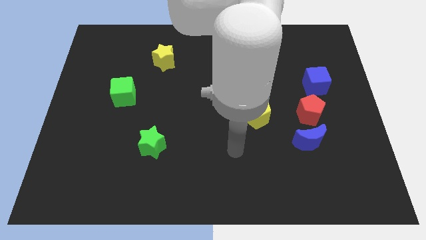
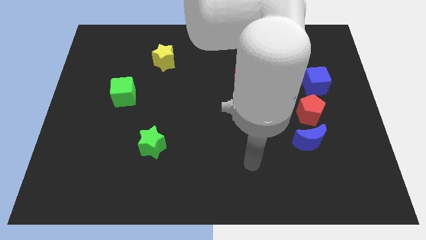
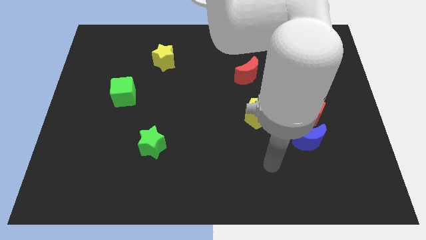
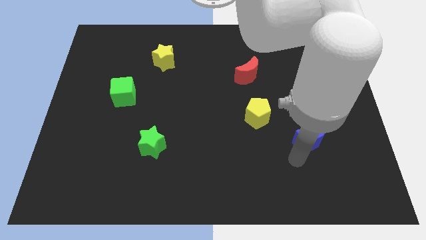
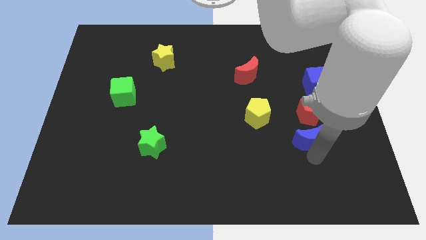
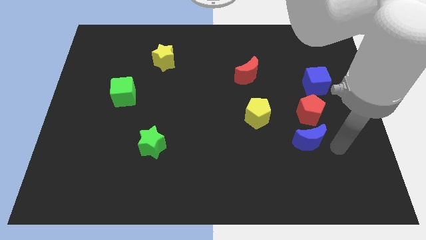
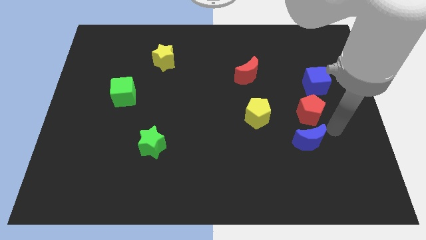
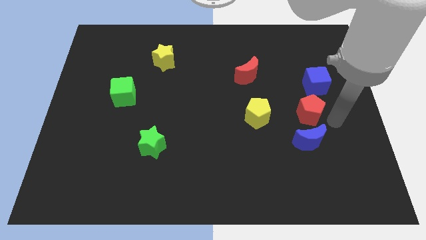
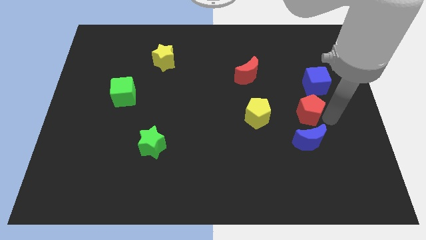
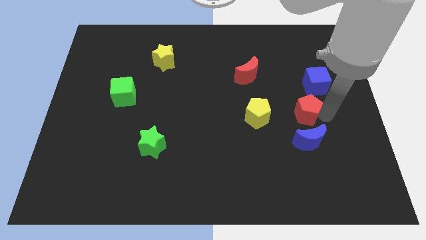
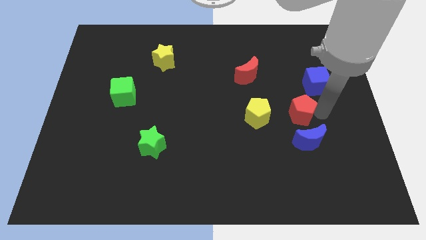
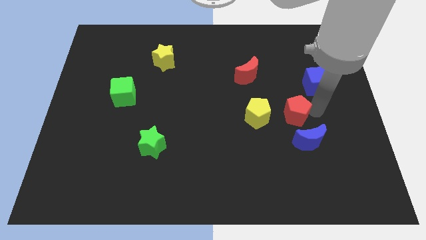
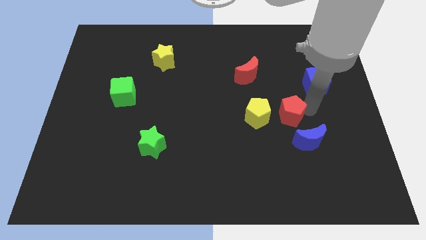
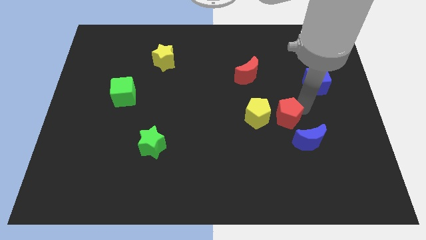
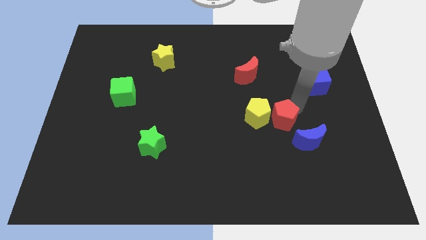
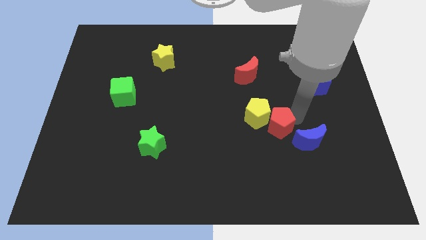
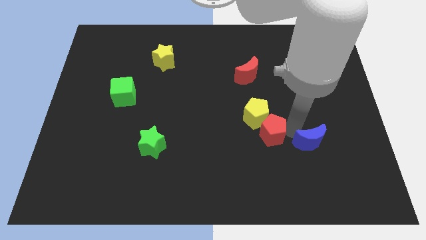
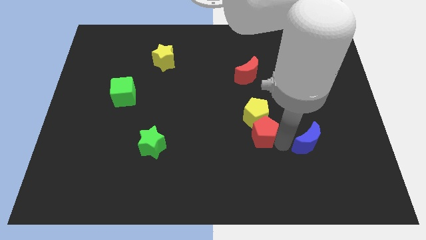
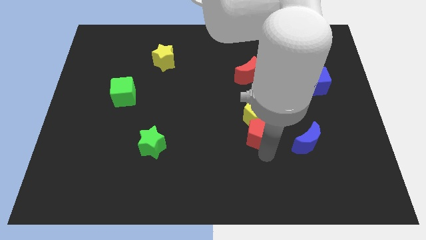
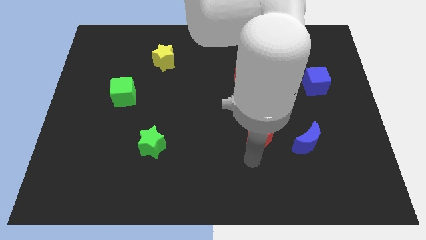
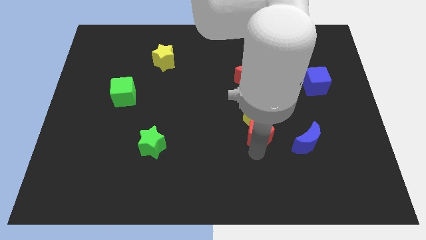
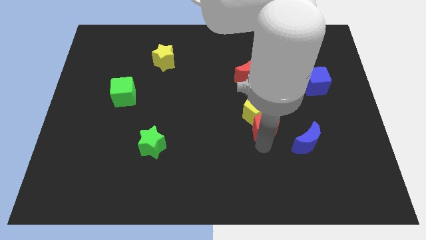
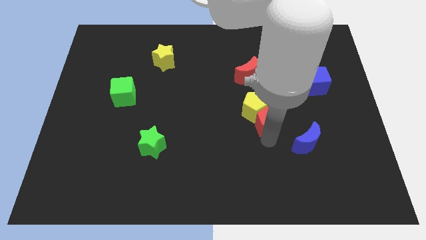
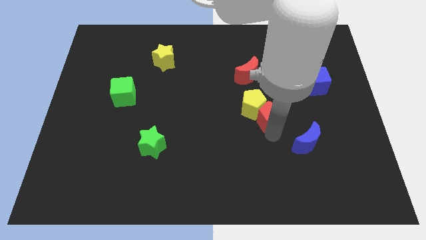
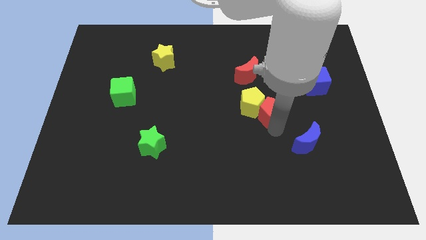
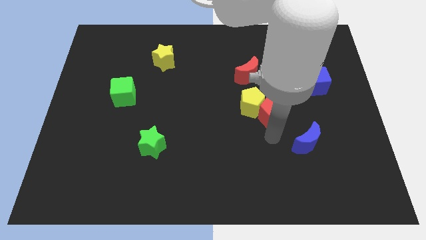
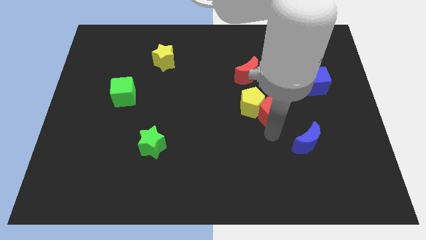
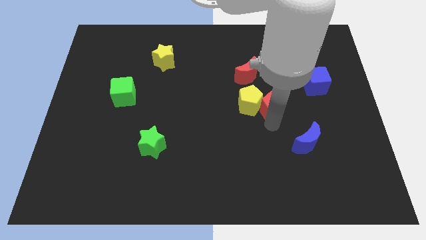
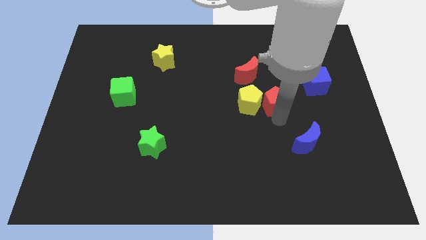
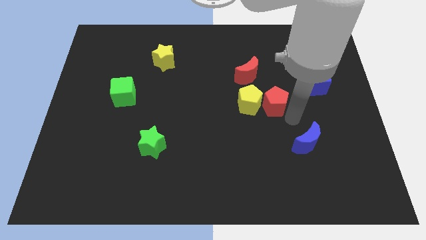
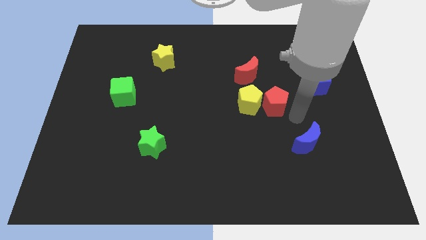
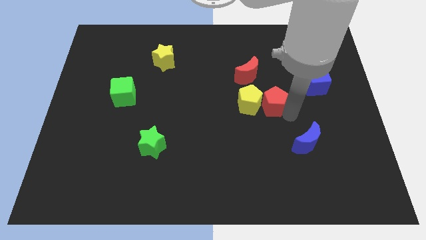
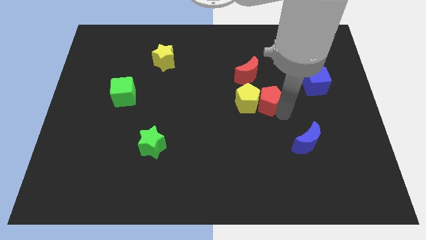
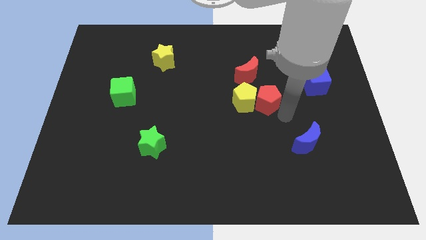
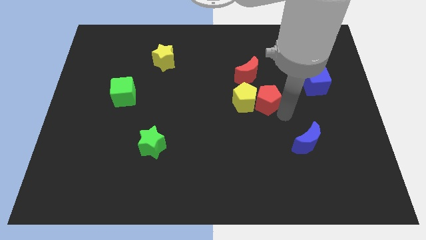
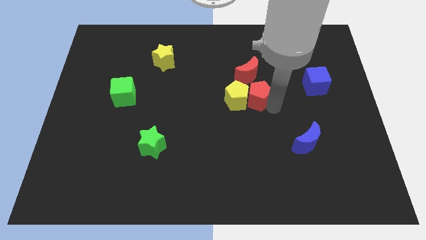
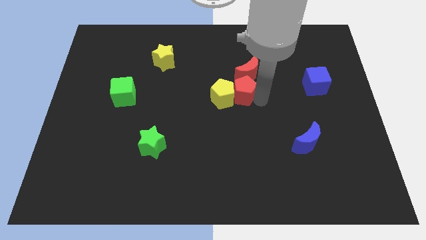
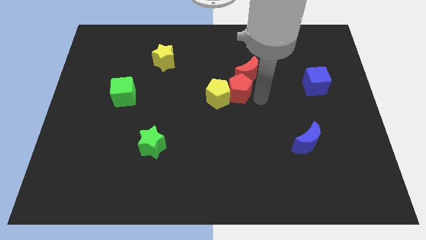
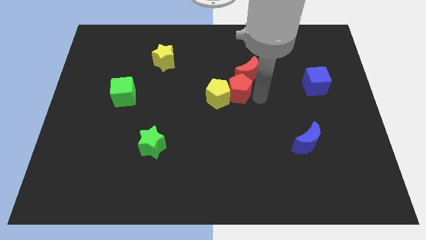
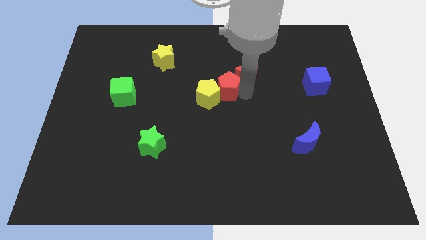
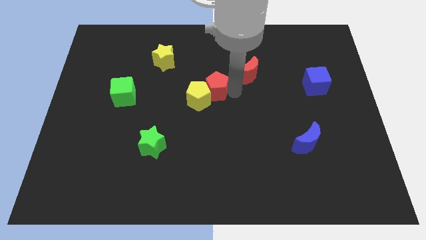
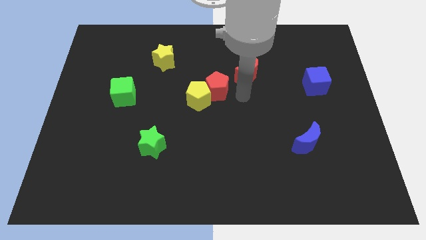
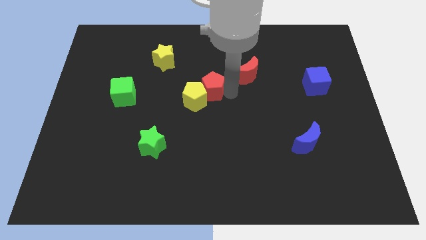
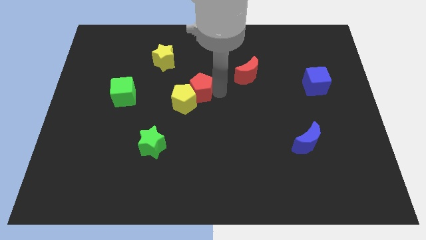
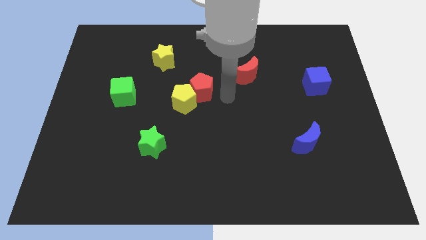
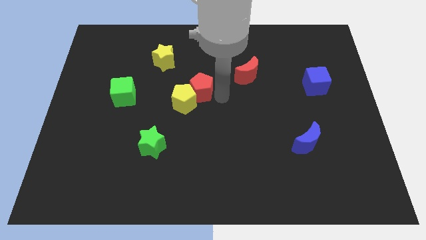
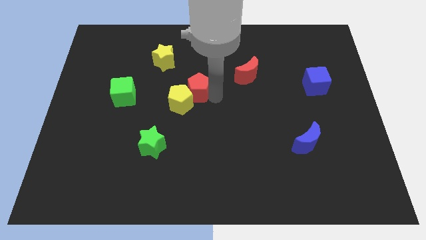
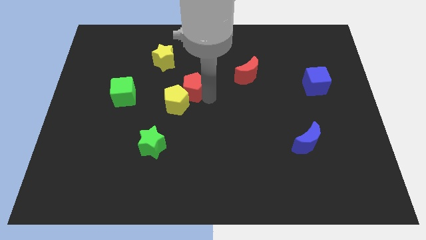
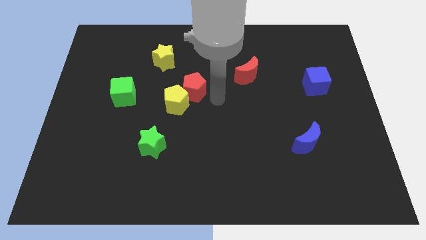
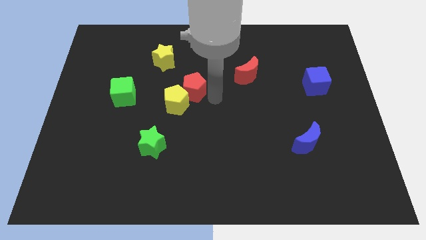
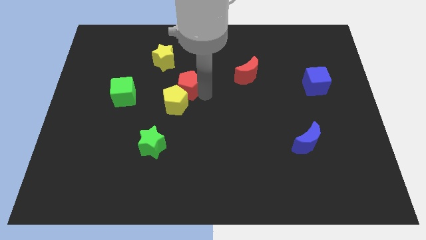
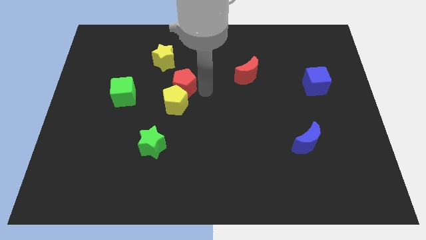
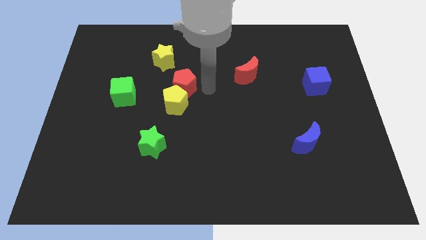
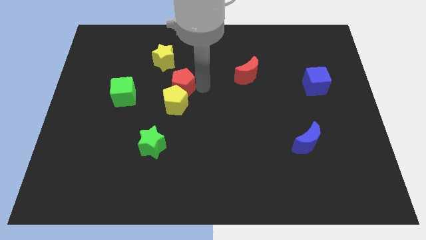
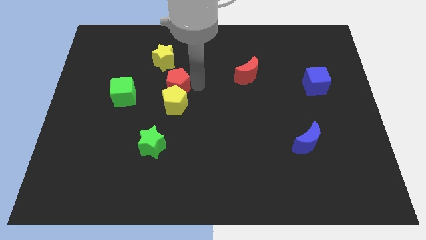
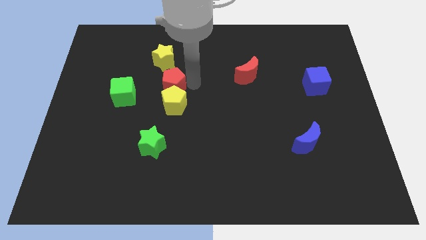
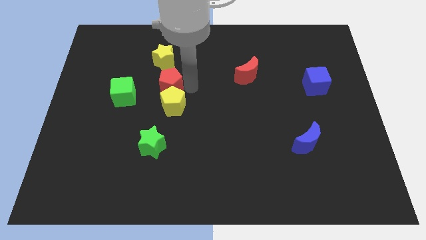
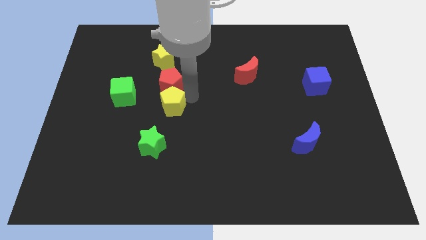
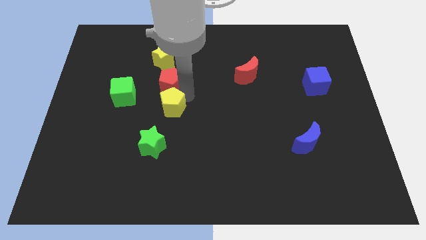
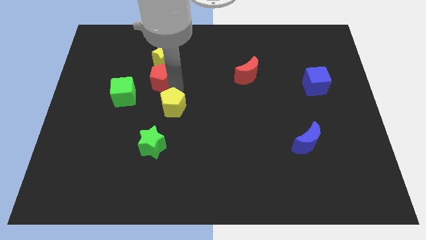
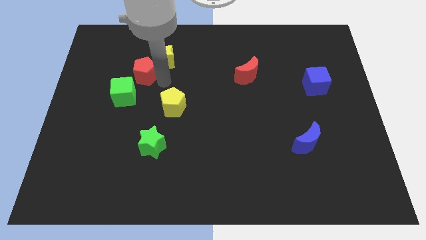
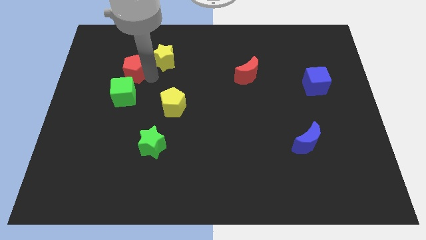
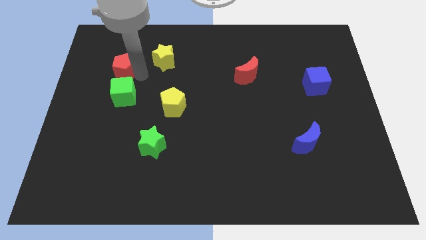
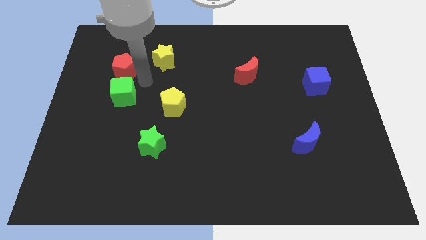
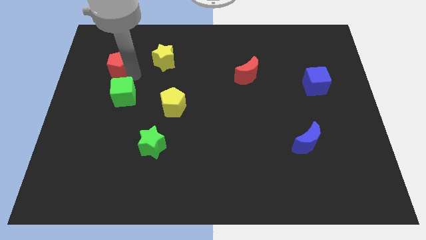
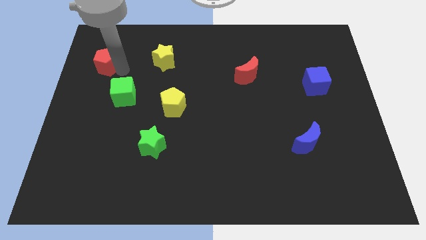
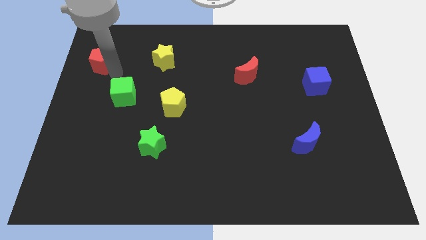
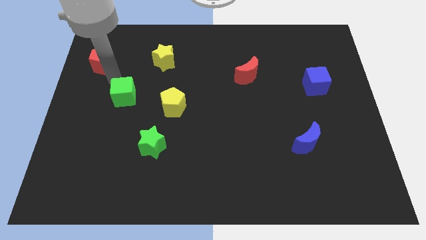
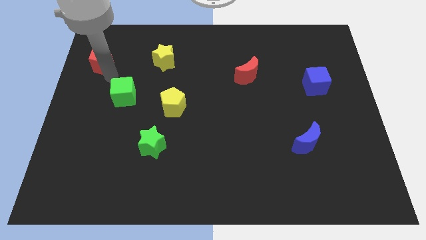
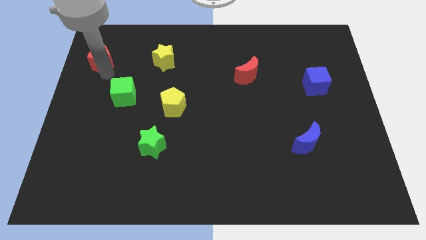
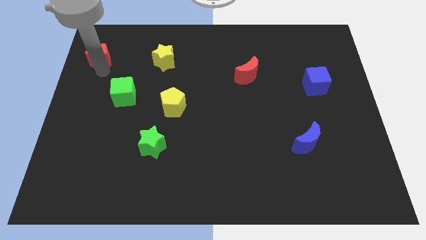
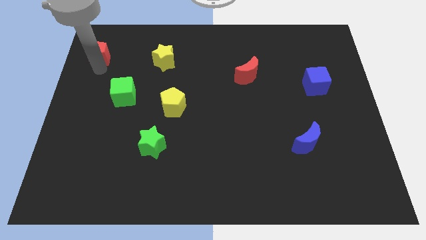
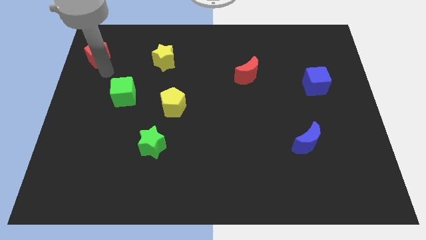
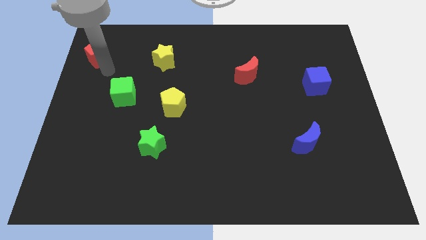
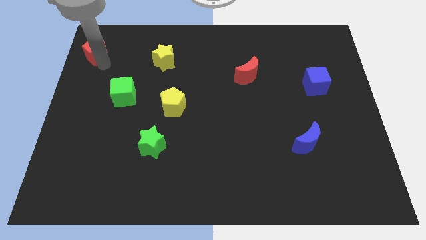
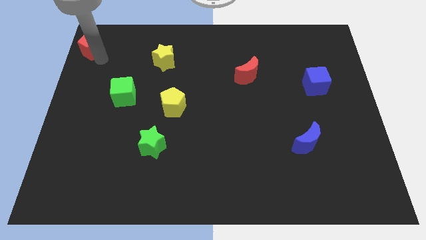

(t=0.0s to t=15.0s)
push the red pentagon to the top left of the board
